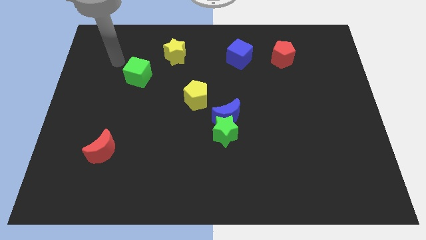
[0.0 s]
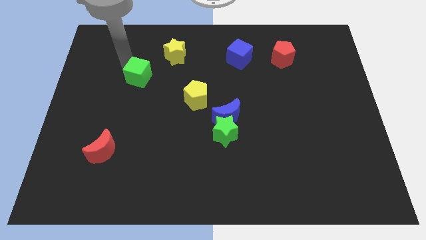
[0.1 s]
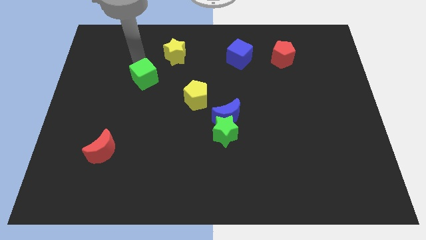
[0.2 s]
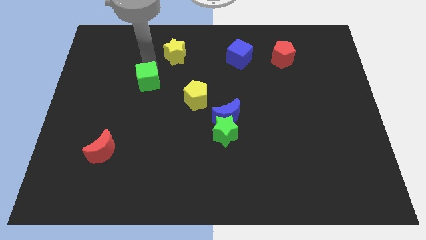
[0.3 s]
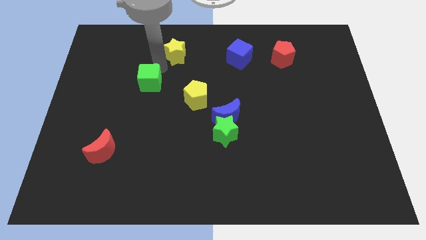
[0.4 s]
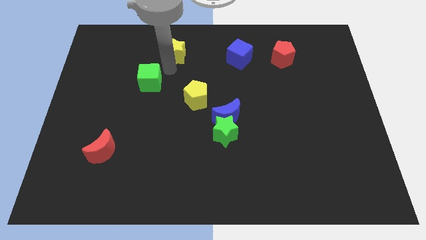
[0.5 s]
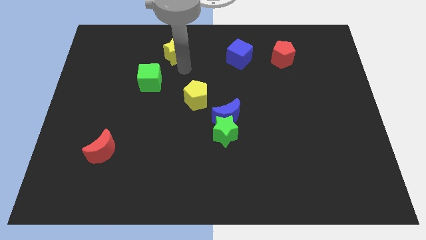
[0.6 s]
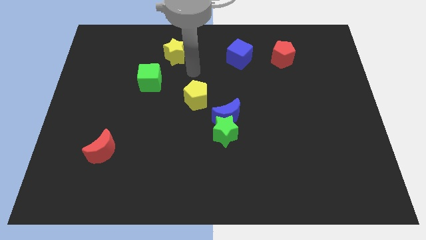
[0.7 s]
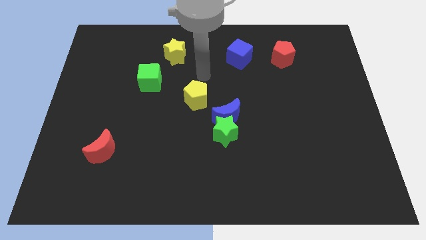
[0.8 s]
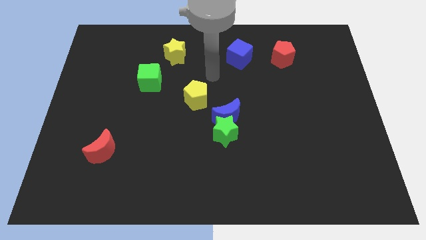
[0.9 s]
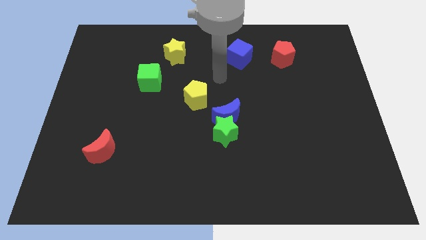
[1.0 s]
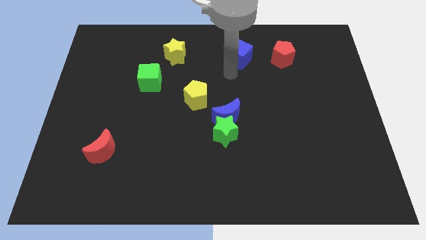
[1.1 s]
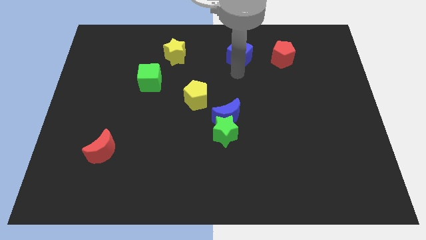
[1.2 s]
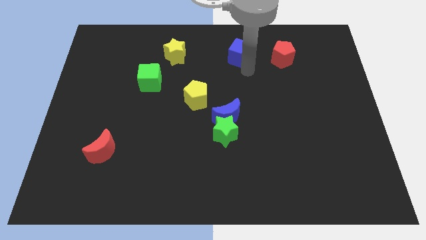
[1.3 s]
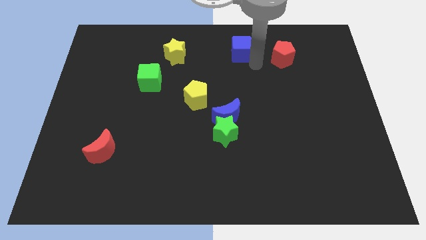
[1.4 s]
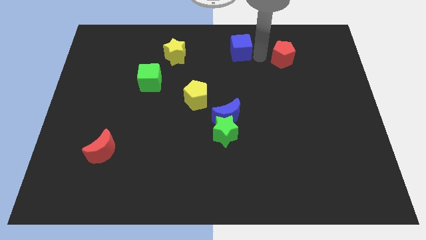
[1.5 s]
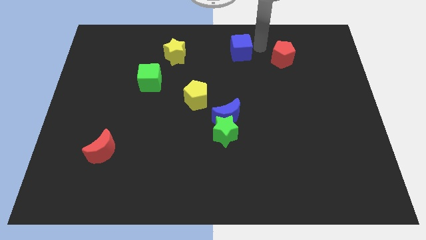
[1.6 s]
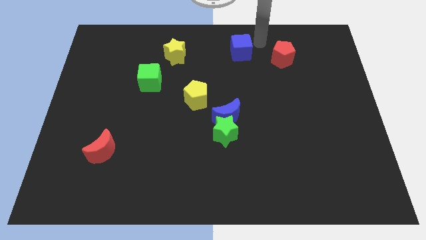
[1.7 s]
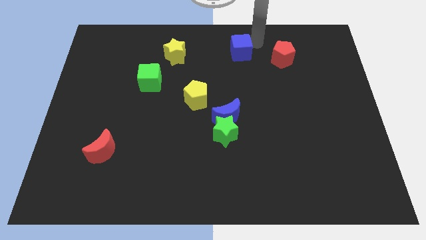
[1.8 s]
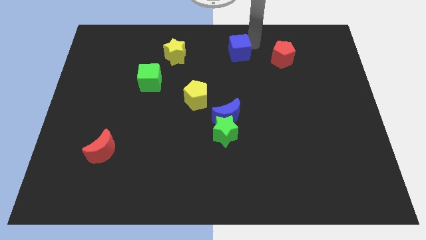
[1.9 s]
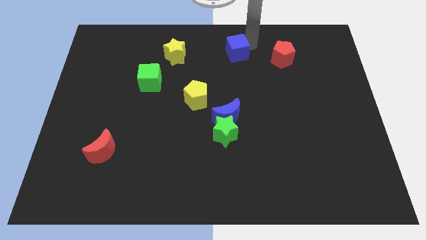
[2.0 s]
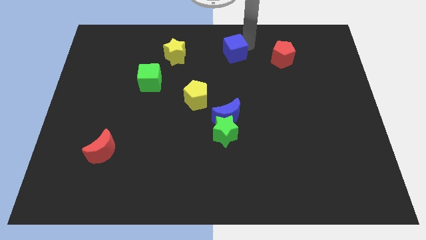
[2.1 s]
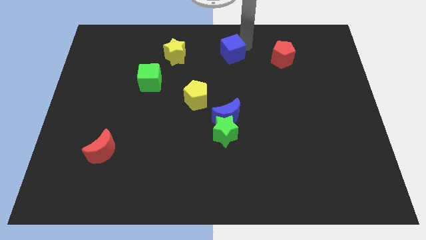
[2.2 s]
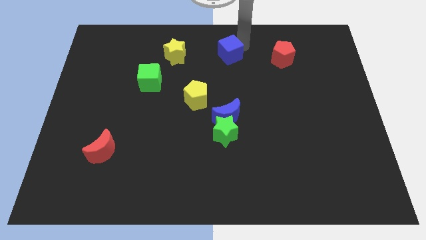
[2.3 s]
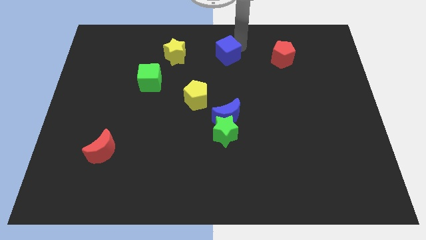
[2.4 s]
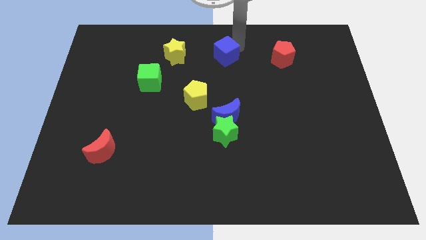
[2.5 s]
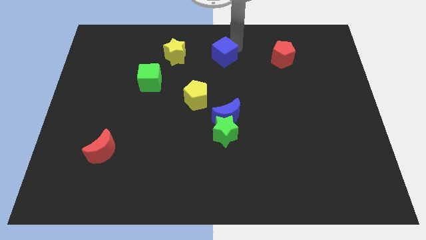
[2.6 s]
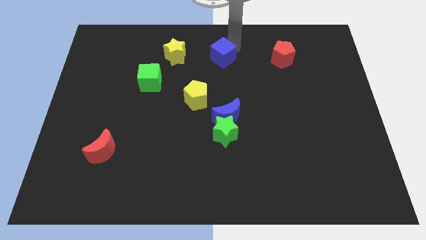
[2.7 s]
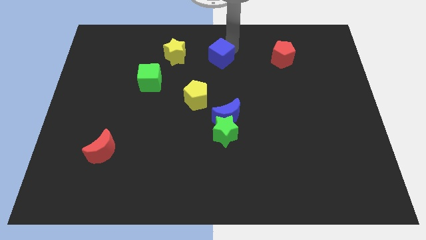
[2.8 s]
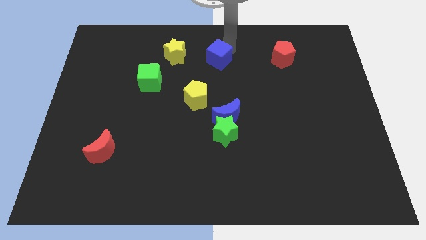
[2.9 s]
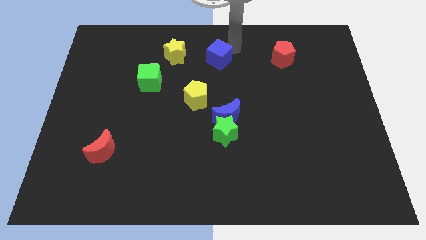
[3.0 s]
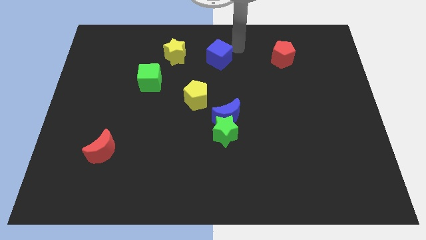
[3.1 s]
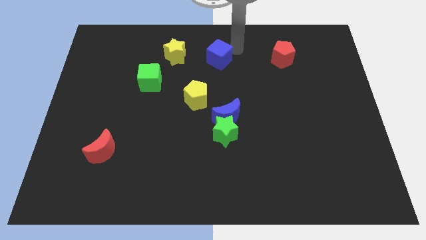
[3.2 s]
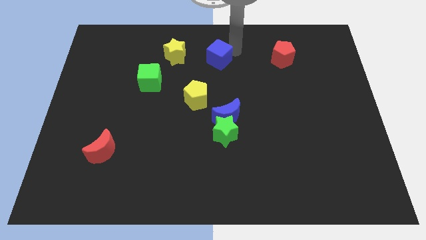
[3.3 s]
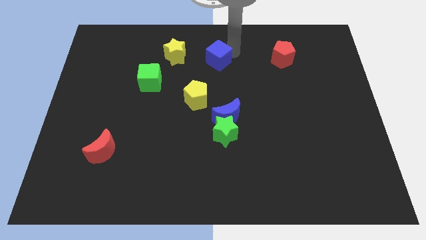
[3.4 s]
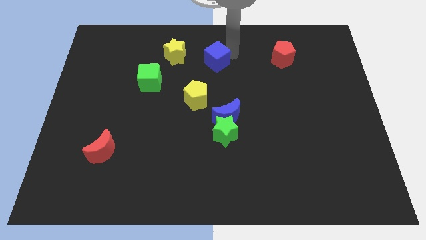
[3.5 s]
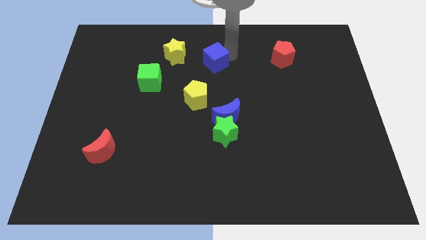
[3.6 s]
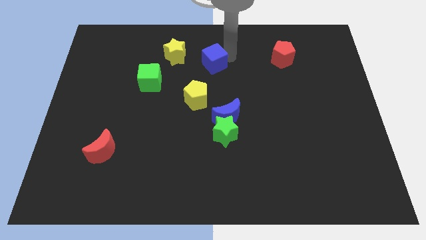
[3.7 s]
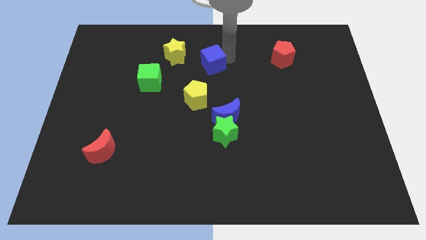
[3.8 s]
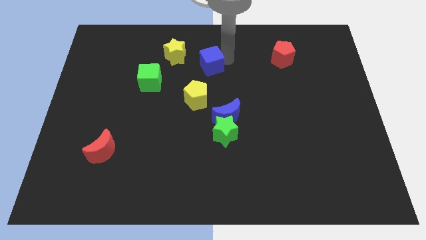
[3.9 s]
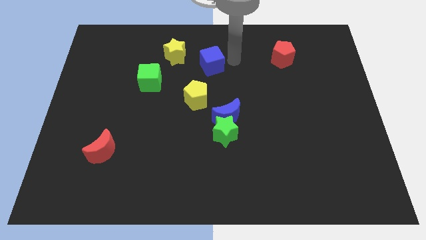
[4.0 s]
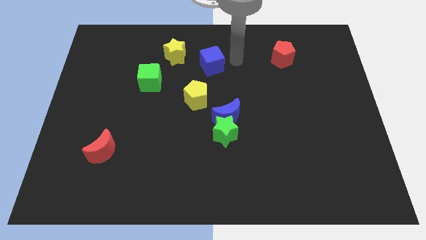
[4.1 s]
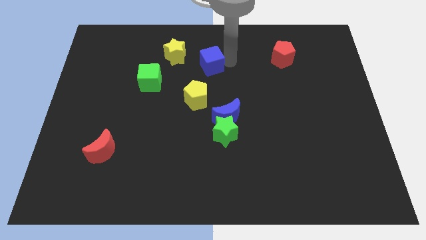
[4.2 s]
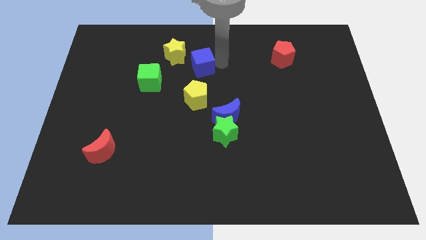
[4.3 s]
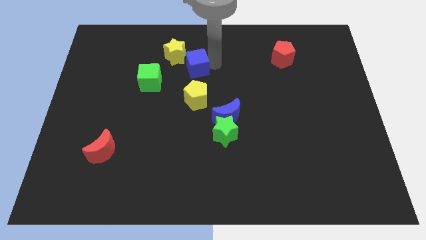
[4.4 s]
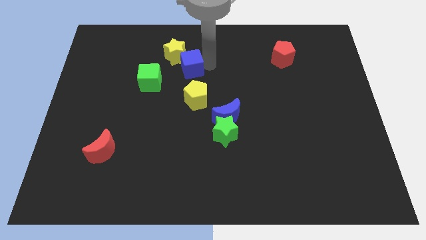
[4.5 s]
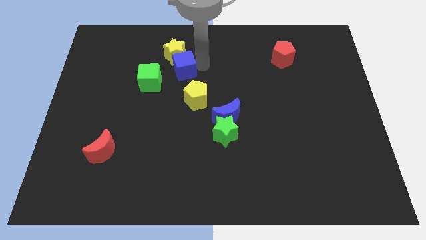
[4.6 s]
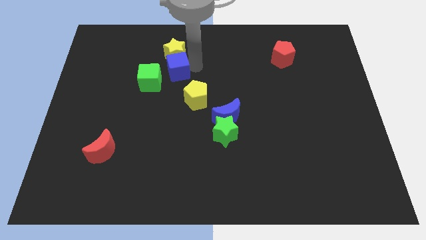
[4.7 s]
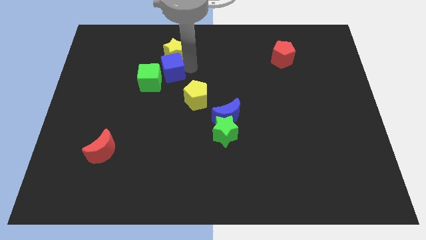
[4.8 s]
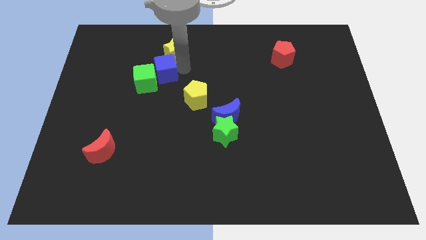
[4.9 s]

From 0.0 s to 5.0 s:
slide the blue cube to the green cube

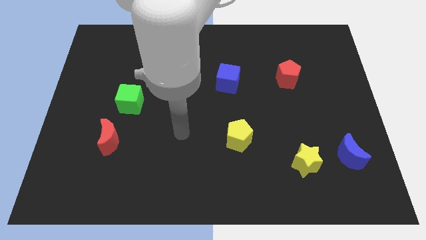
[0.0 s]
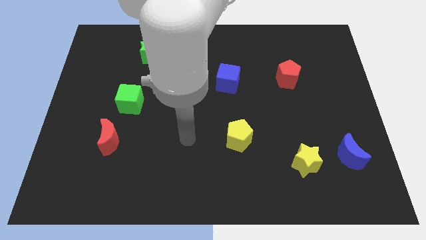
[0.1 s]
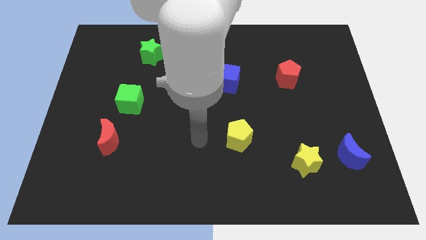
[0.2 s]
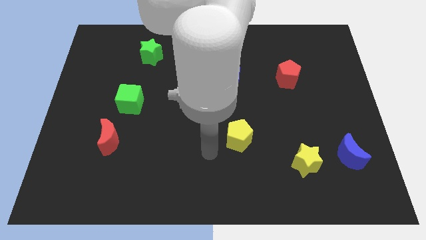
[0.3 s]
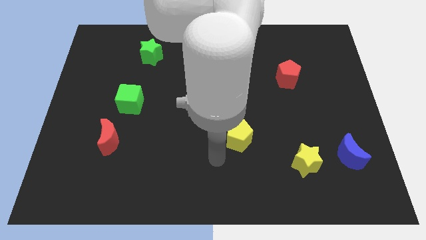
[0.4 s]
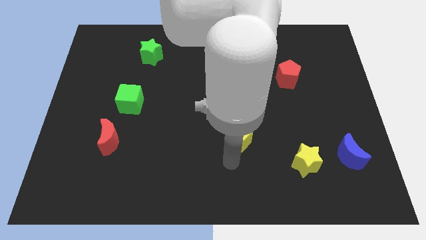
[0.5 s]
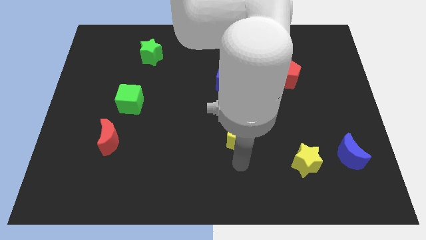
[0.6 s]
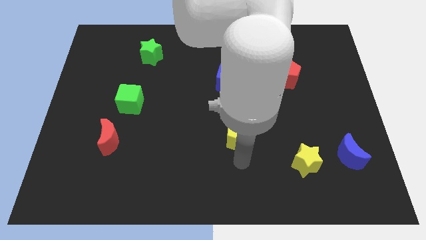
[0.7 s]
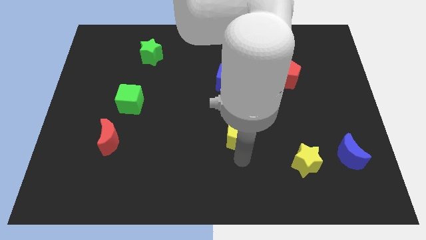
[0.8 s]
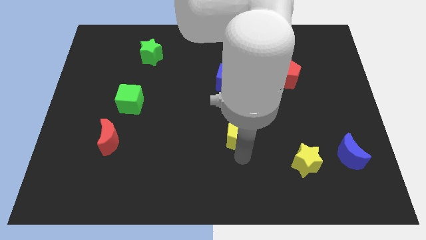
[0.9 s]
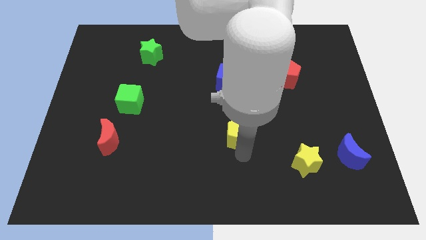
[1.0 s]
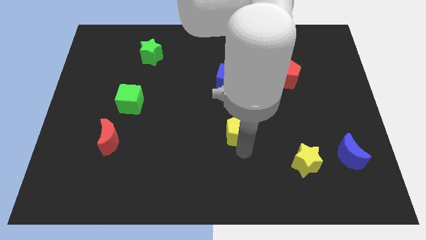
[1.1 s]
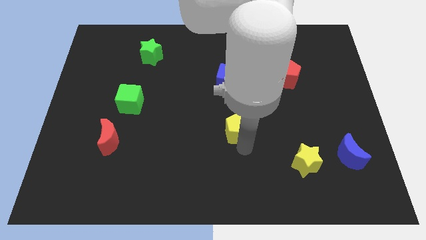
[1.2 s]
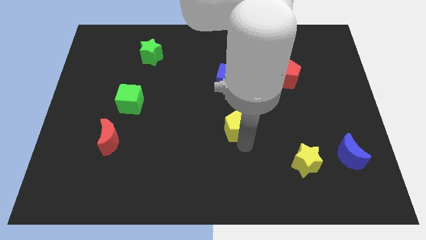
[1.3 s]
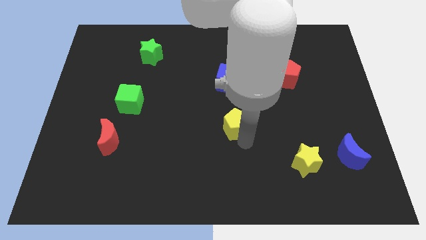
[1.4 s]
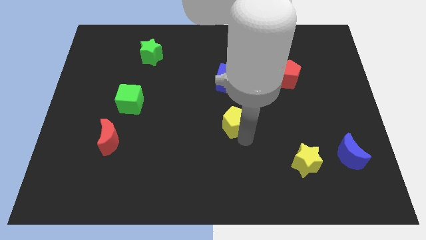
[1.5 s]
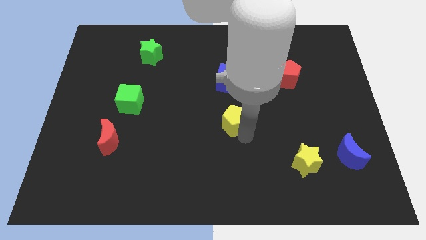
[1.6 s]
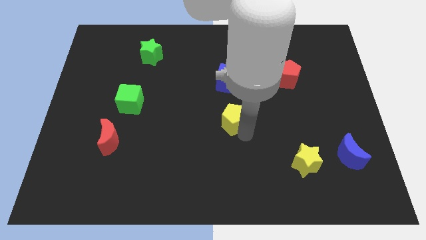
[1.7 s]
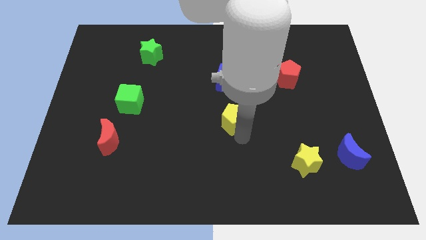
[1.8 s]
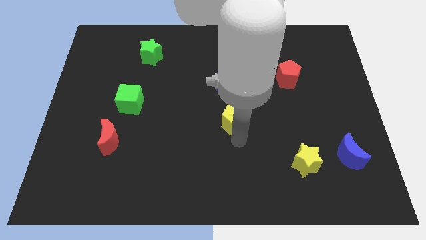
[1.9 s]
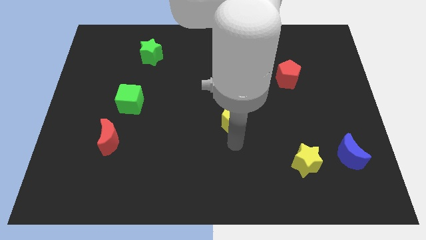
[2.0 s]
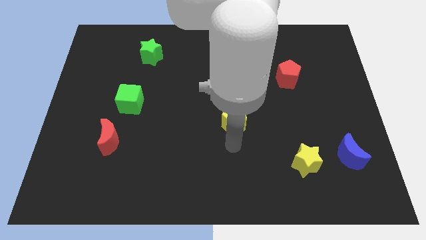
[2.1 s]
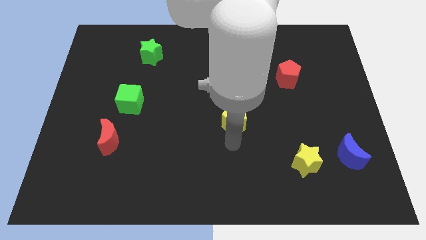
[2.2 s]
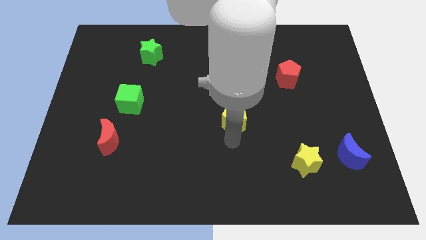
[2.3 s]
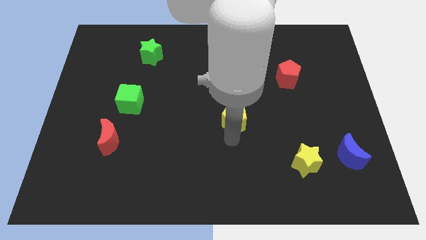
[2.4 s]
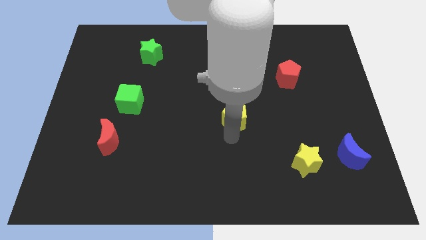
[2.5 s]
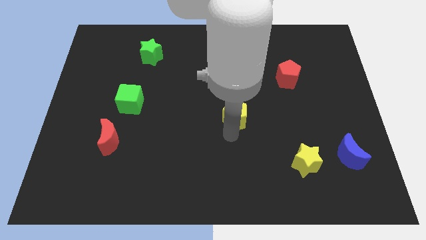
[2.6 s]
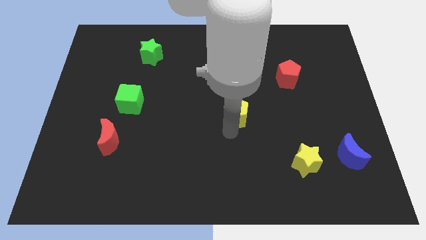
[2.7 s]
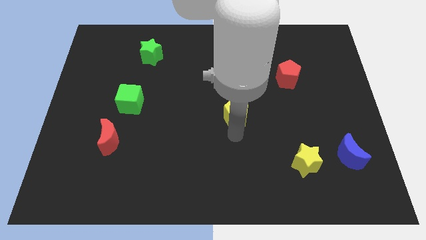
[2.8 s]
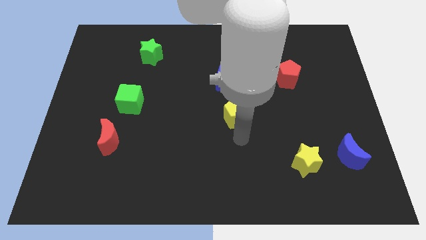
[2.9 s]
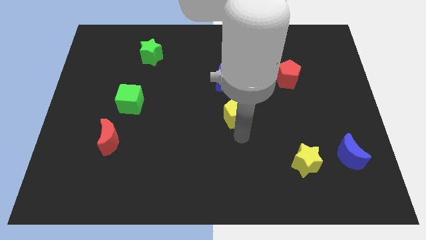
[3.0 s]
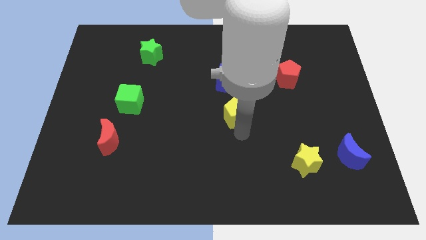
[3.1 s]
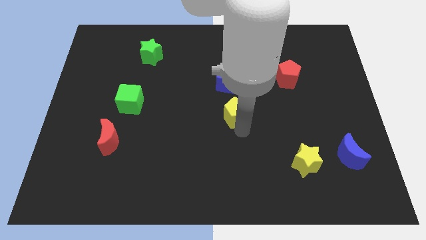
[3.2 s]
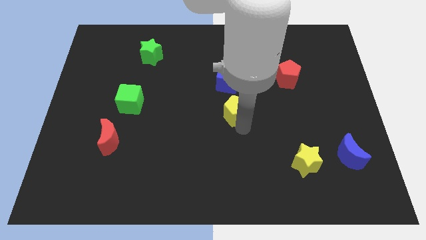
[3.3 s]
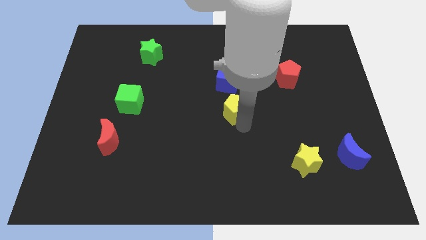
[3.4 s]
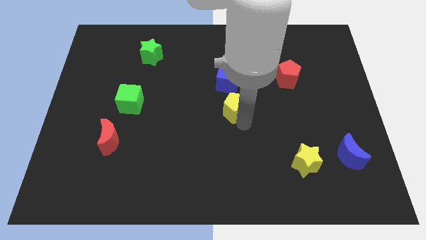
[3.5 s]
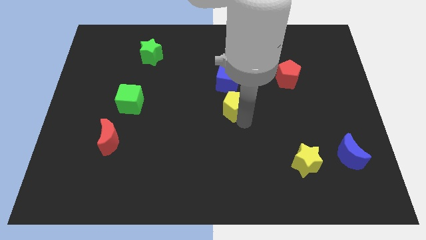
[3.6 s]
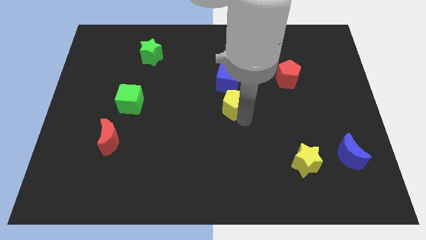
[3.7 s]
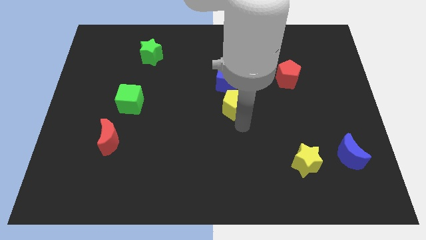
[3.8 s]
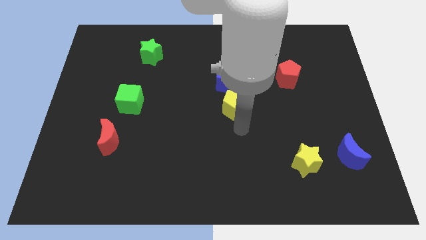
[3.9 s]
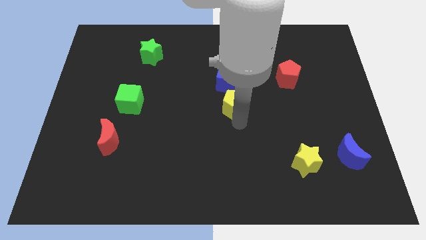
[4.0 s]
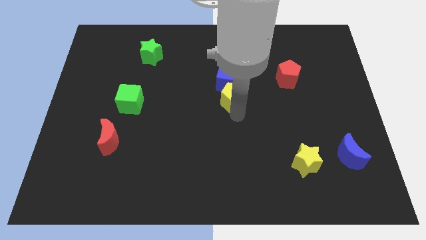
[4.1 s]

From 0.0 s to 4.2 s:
put the yellow pentagon next to the blue cube
